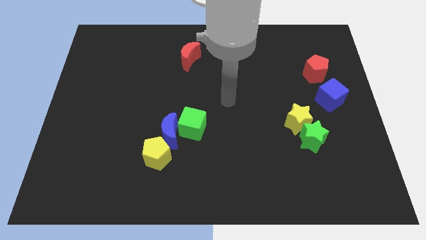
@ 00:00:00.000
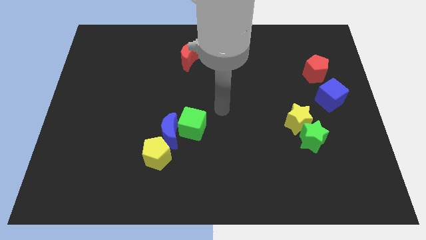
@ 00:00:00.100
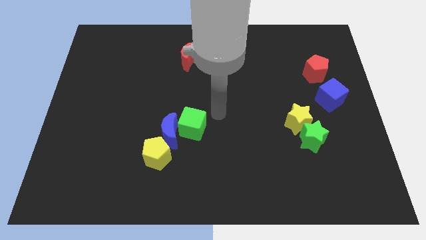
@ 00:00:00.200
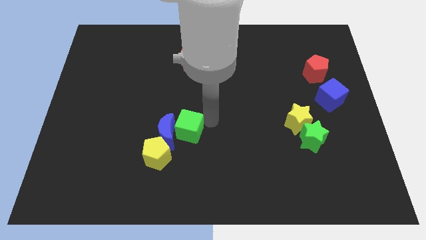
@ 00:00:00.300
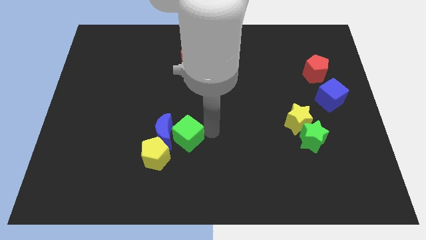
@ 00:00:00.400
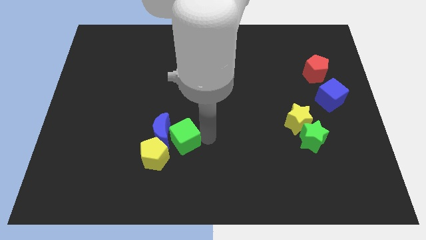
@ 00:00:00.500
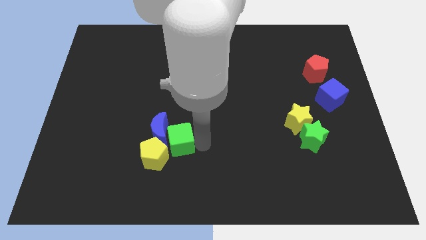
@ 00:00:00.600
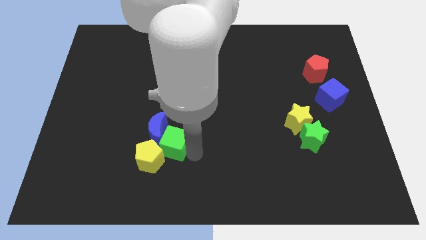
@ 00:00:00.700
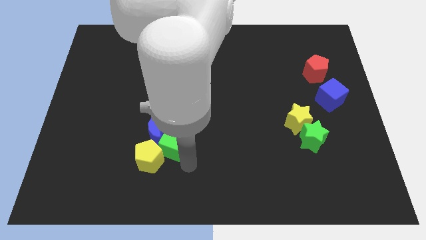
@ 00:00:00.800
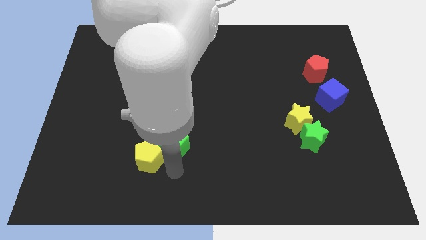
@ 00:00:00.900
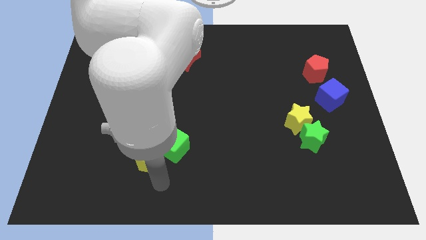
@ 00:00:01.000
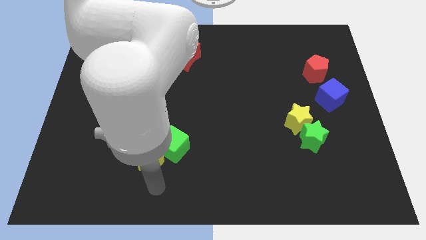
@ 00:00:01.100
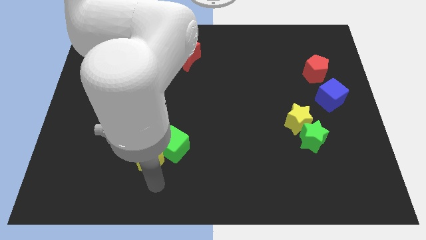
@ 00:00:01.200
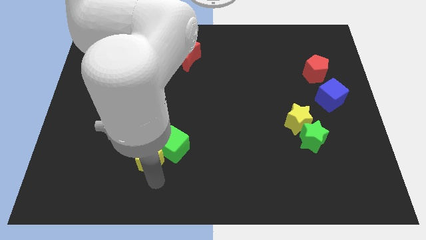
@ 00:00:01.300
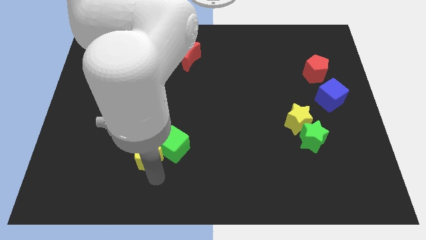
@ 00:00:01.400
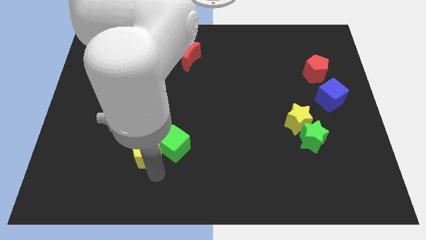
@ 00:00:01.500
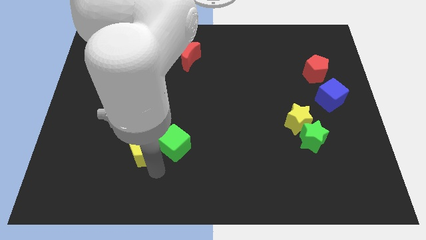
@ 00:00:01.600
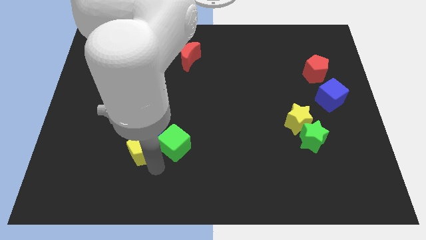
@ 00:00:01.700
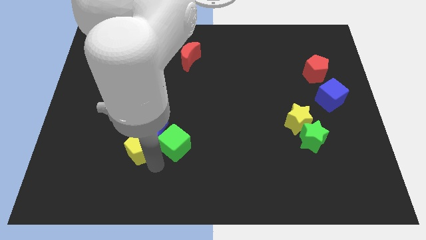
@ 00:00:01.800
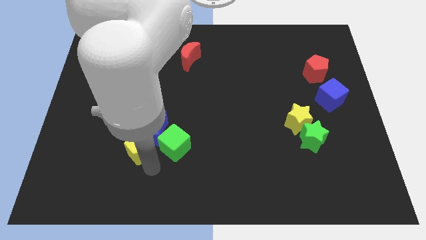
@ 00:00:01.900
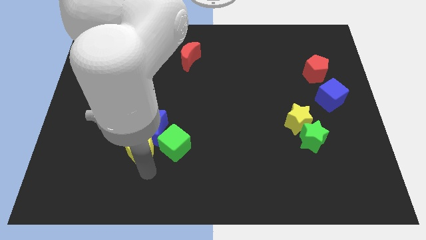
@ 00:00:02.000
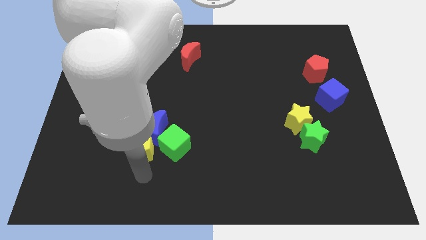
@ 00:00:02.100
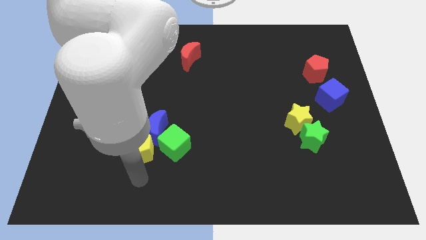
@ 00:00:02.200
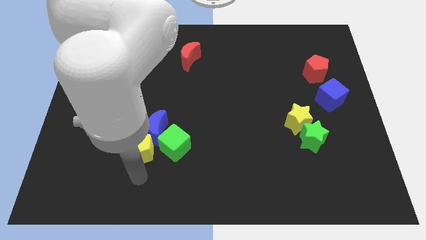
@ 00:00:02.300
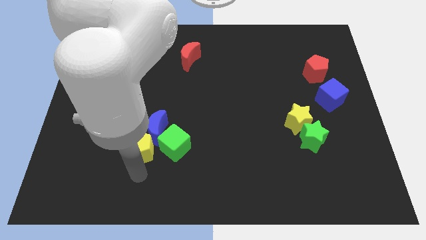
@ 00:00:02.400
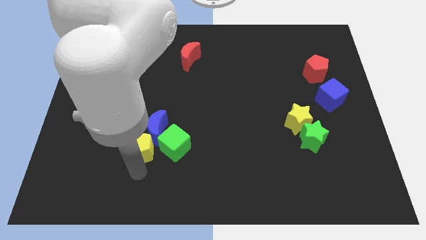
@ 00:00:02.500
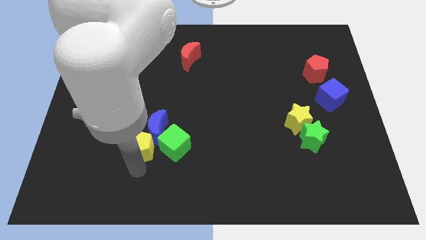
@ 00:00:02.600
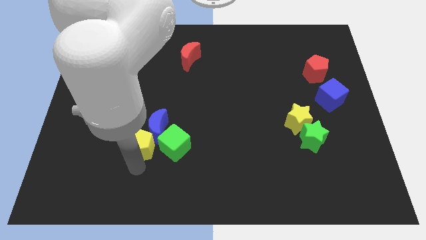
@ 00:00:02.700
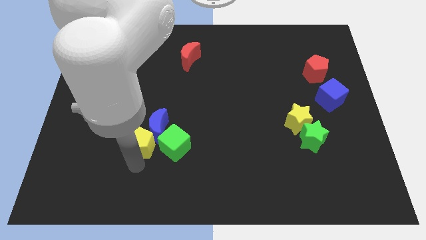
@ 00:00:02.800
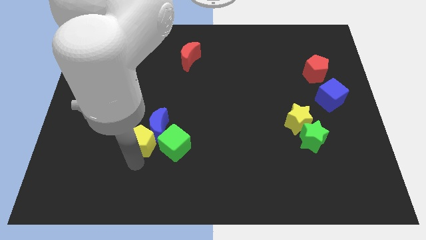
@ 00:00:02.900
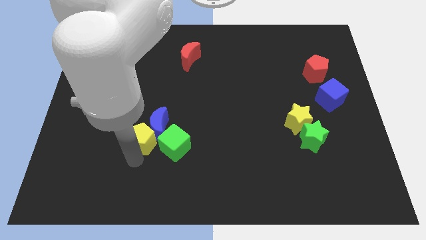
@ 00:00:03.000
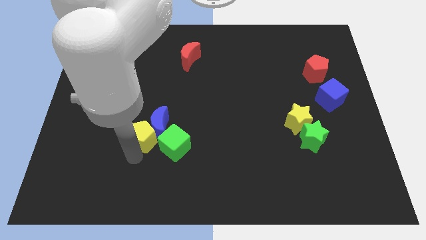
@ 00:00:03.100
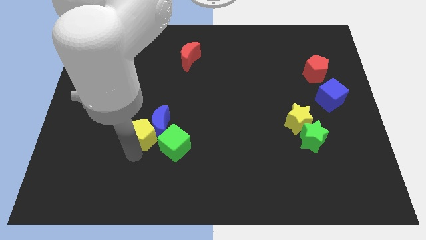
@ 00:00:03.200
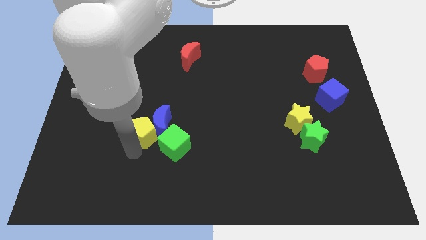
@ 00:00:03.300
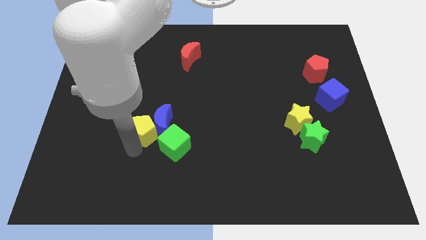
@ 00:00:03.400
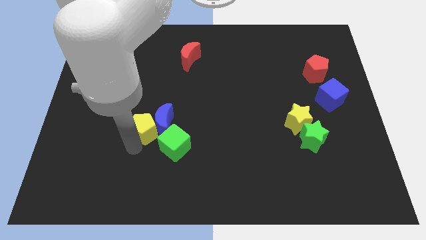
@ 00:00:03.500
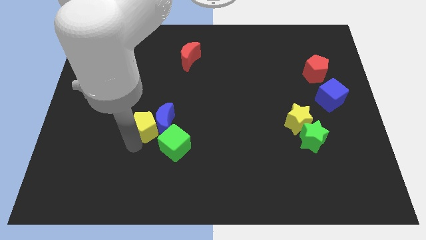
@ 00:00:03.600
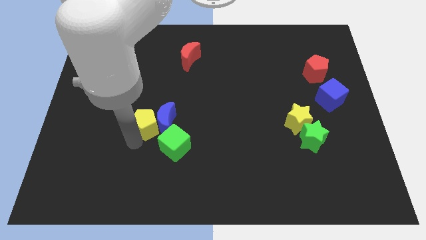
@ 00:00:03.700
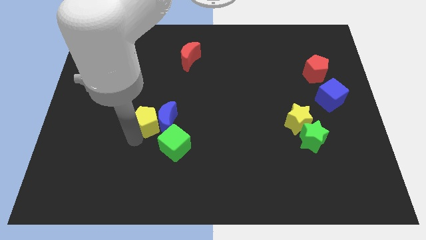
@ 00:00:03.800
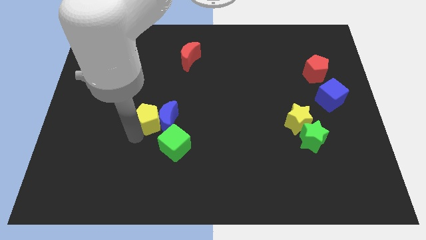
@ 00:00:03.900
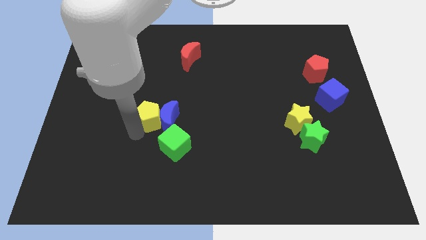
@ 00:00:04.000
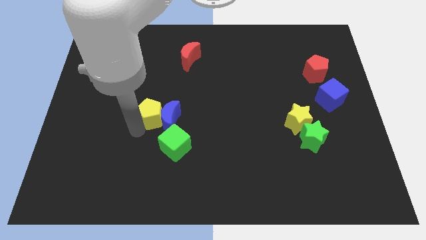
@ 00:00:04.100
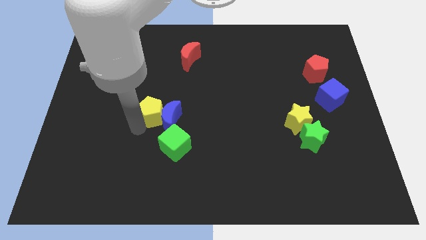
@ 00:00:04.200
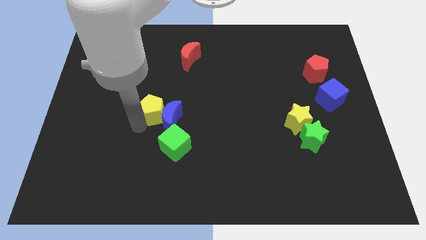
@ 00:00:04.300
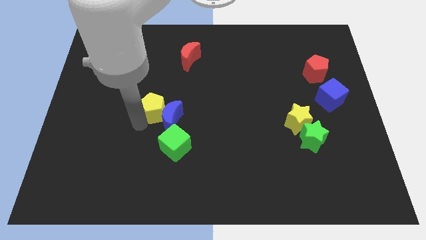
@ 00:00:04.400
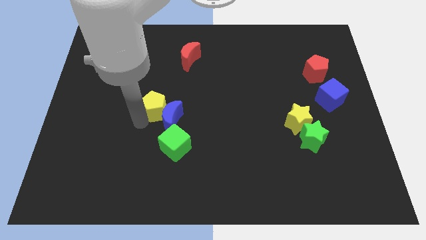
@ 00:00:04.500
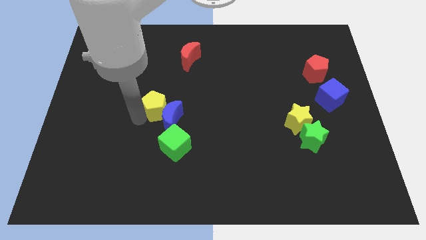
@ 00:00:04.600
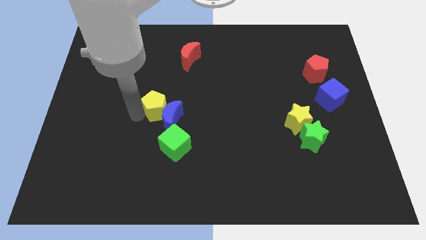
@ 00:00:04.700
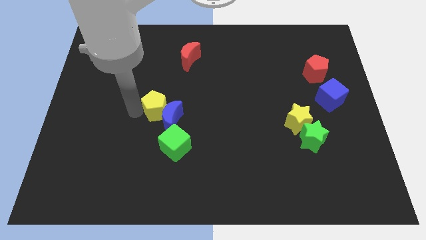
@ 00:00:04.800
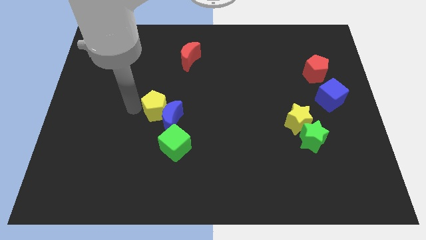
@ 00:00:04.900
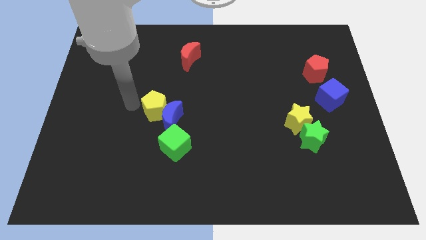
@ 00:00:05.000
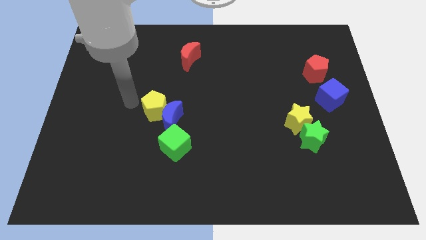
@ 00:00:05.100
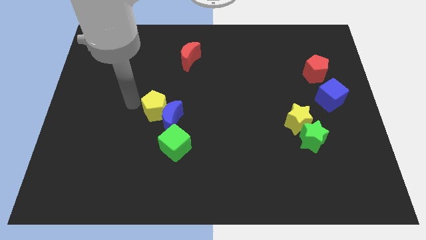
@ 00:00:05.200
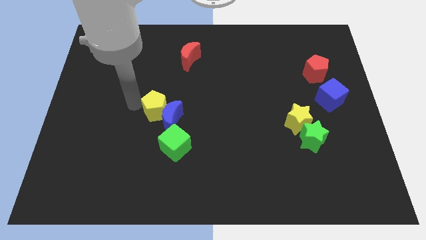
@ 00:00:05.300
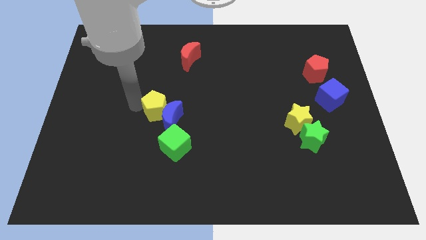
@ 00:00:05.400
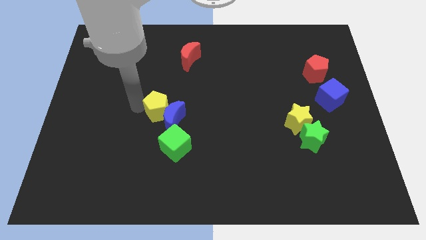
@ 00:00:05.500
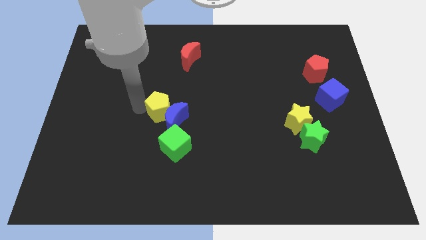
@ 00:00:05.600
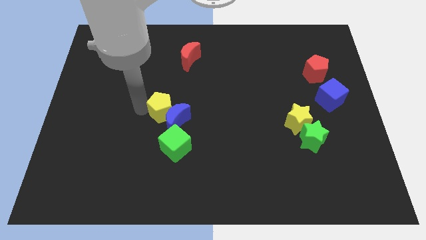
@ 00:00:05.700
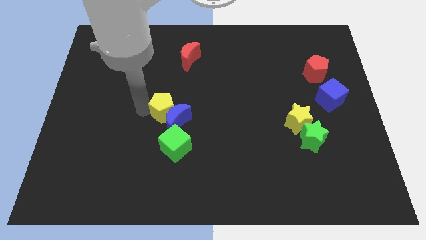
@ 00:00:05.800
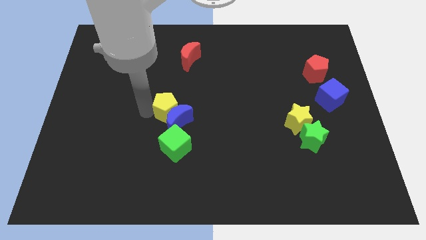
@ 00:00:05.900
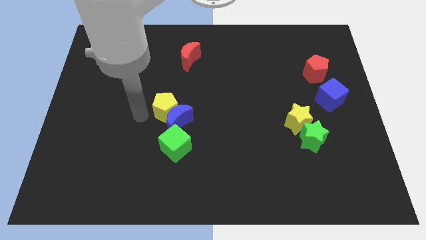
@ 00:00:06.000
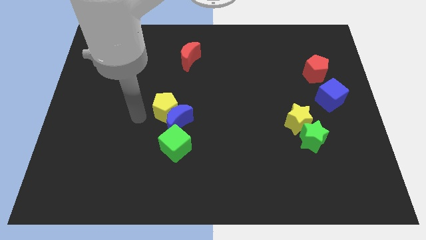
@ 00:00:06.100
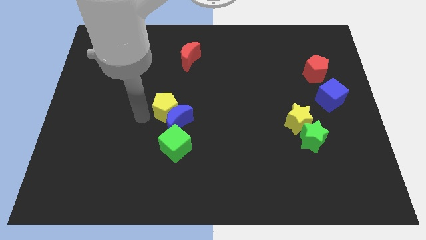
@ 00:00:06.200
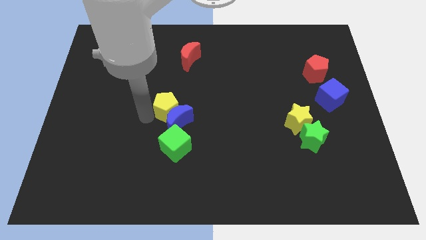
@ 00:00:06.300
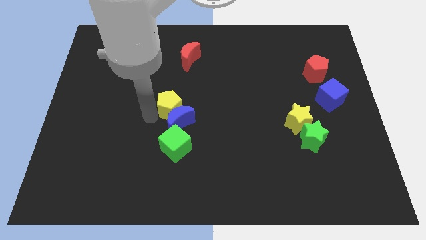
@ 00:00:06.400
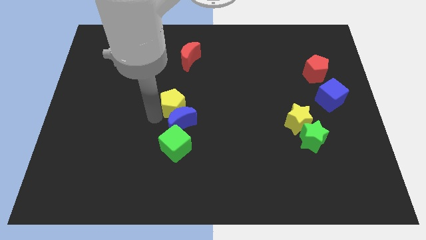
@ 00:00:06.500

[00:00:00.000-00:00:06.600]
slide the yellow pentagon diagonally up and to the right of the blue moon
